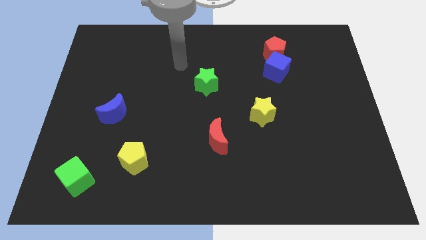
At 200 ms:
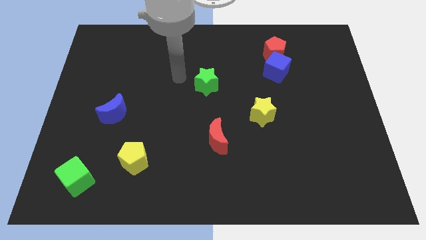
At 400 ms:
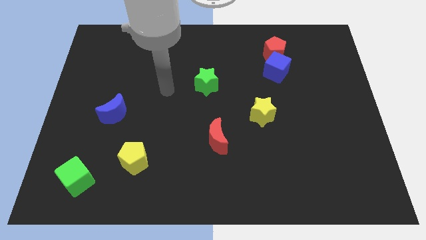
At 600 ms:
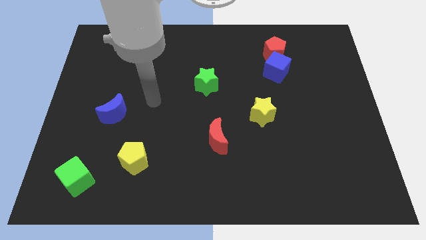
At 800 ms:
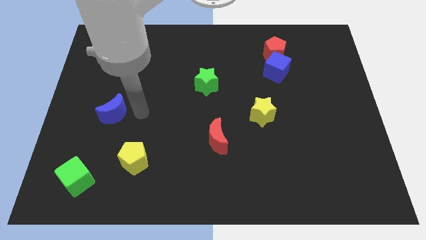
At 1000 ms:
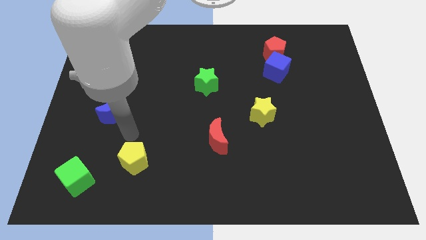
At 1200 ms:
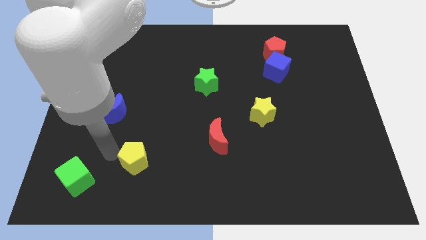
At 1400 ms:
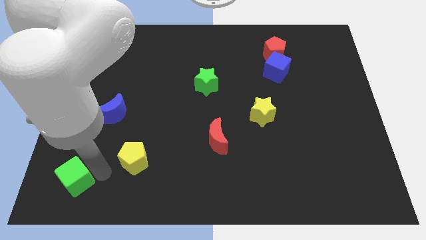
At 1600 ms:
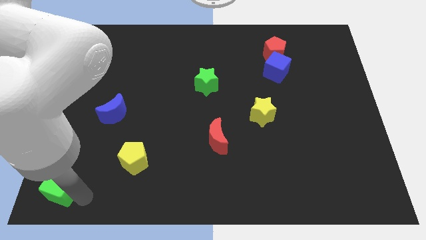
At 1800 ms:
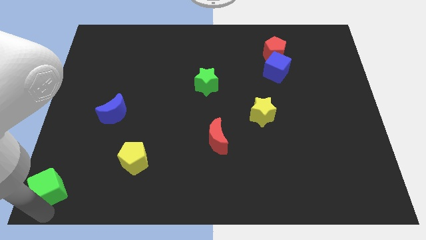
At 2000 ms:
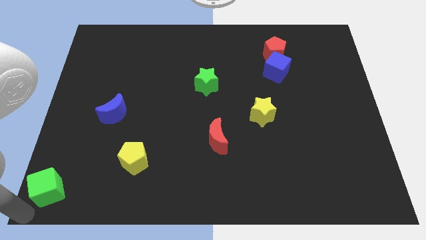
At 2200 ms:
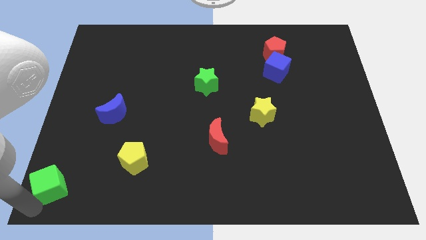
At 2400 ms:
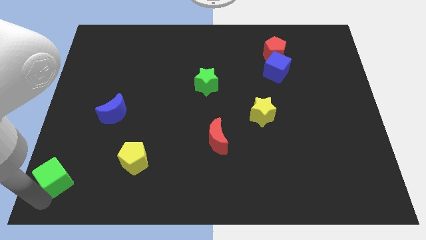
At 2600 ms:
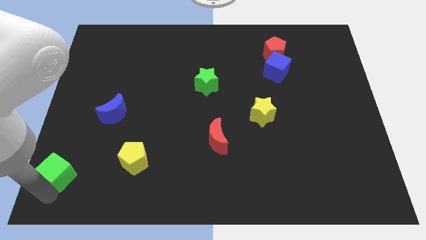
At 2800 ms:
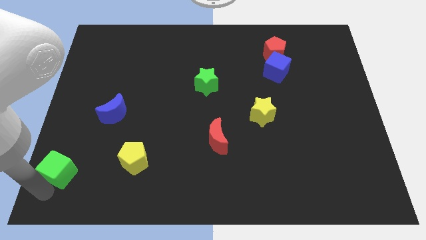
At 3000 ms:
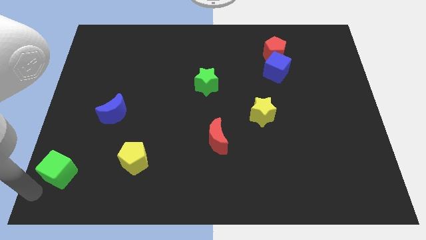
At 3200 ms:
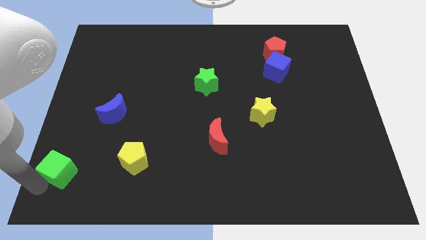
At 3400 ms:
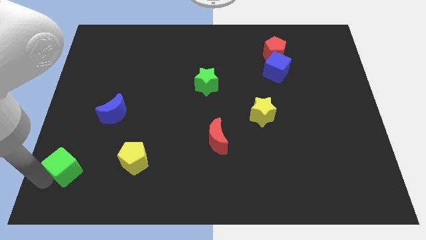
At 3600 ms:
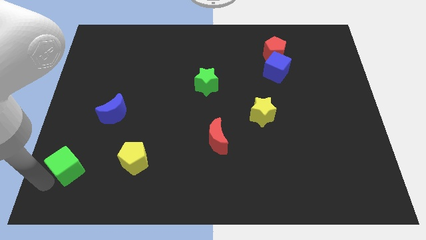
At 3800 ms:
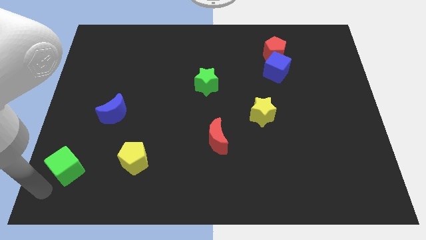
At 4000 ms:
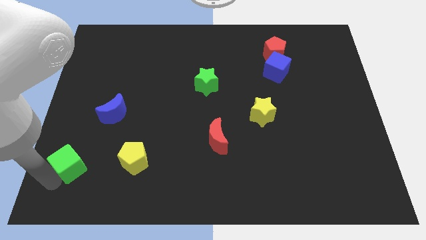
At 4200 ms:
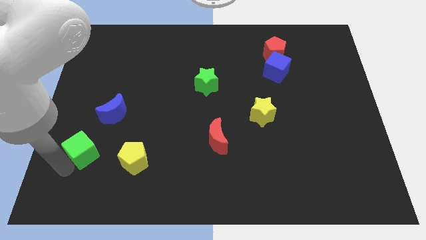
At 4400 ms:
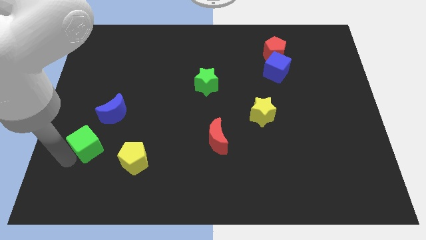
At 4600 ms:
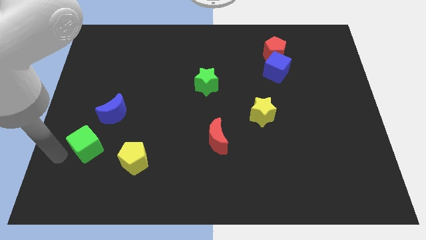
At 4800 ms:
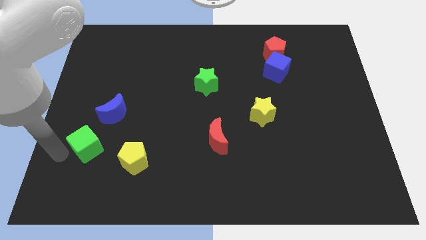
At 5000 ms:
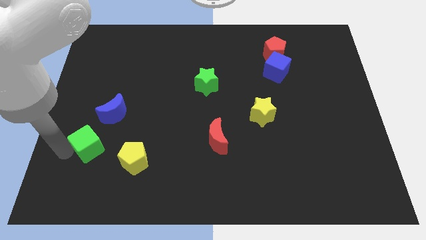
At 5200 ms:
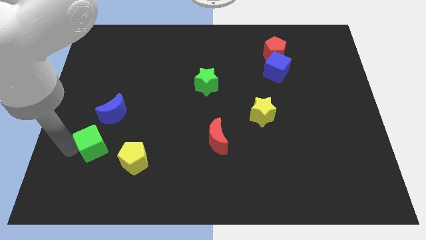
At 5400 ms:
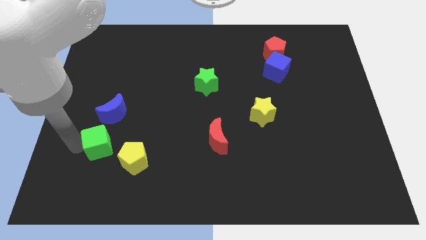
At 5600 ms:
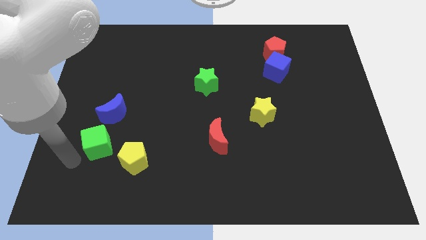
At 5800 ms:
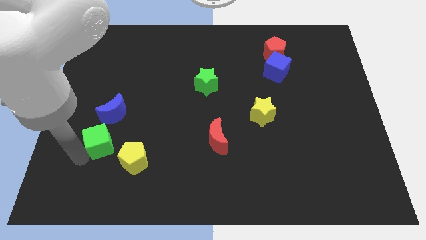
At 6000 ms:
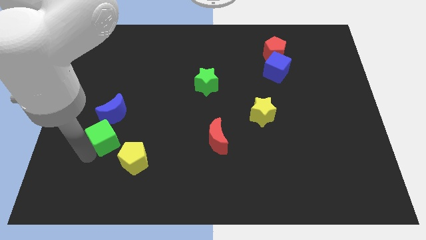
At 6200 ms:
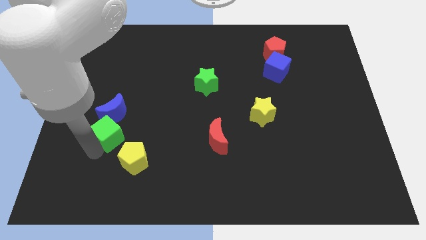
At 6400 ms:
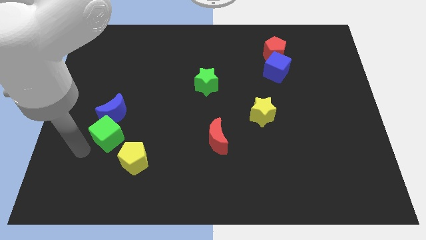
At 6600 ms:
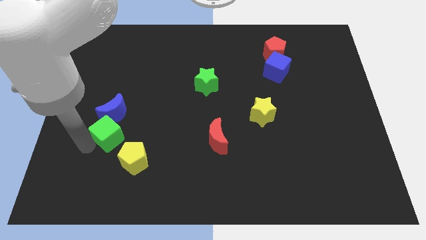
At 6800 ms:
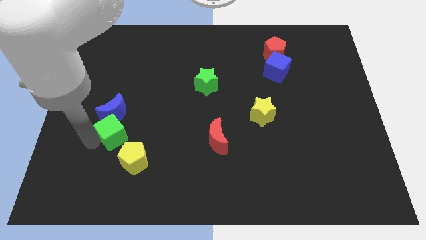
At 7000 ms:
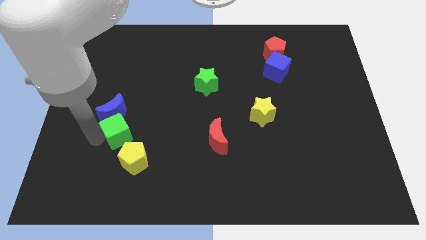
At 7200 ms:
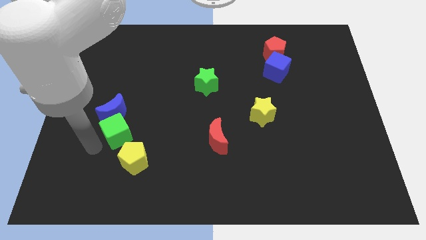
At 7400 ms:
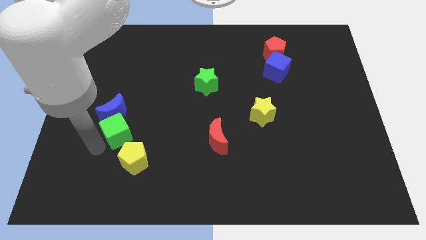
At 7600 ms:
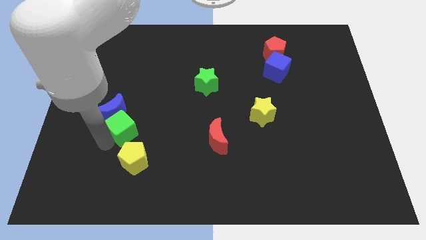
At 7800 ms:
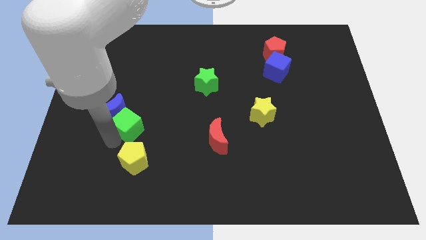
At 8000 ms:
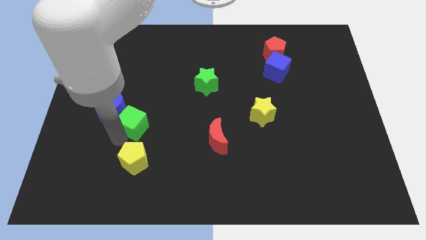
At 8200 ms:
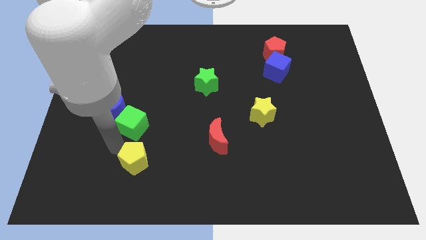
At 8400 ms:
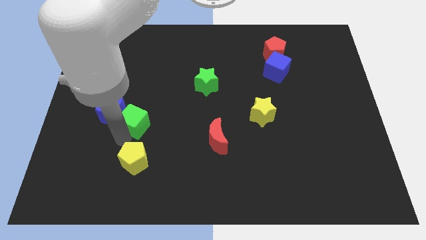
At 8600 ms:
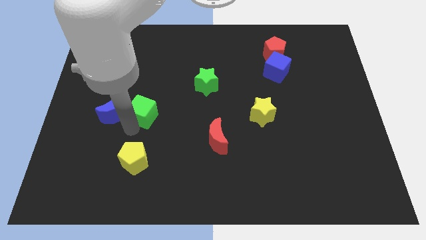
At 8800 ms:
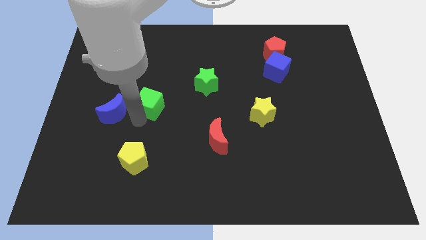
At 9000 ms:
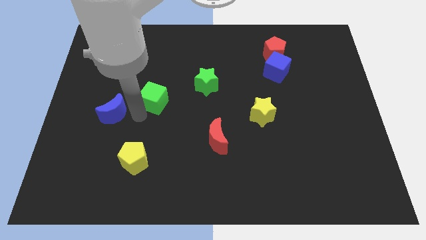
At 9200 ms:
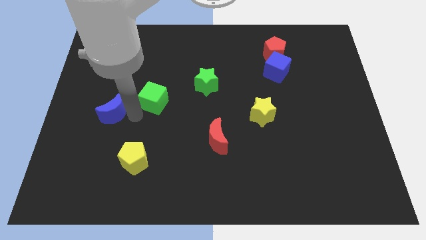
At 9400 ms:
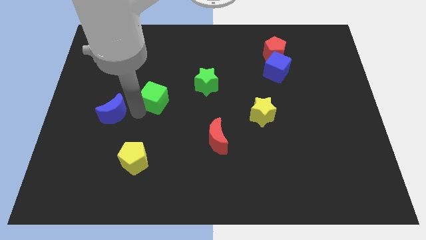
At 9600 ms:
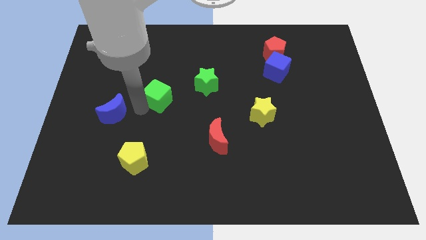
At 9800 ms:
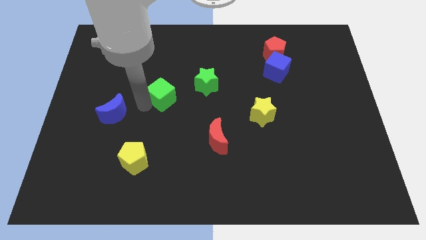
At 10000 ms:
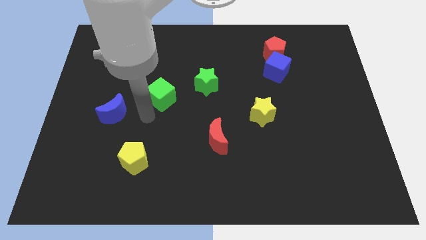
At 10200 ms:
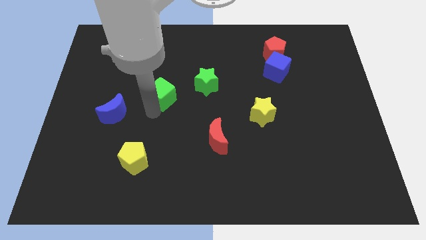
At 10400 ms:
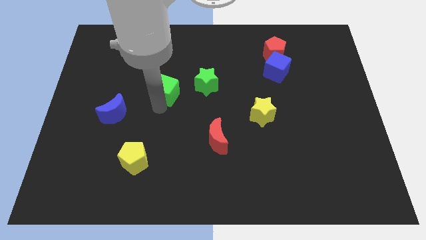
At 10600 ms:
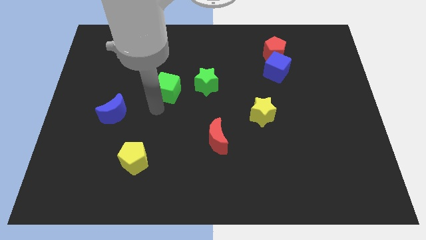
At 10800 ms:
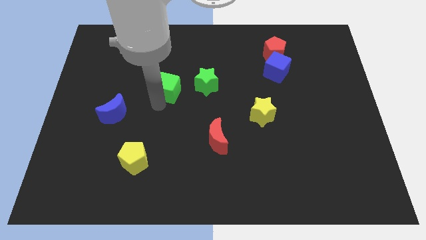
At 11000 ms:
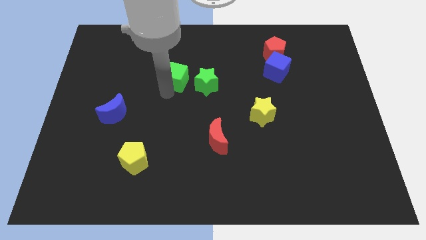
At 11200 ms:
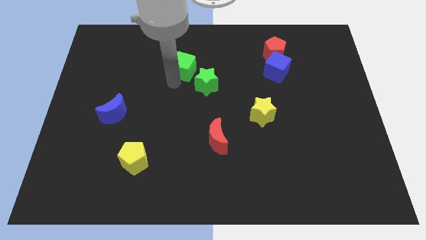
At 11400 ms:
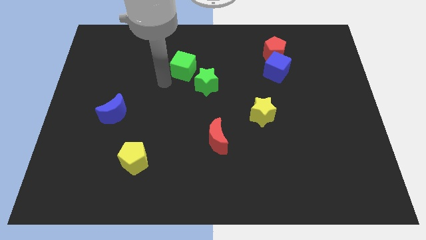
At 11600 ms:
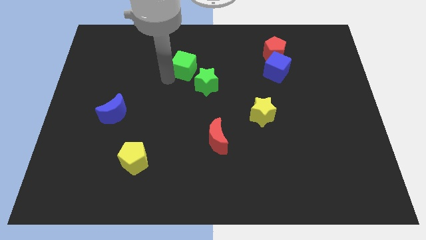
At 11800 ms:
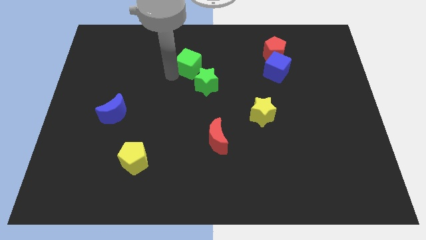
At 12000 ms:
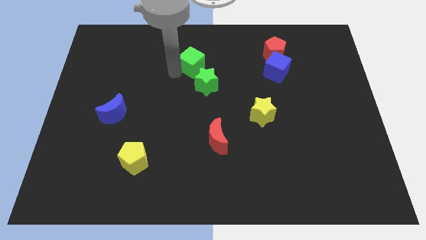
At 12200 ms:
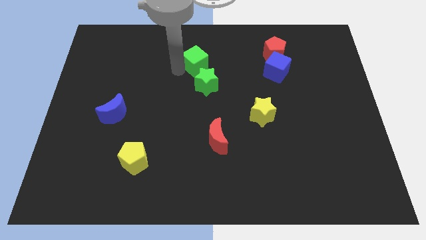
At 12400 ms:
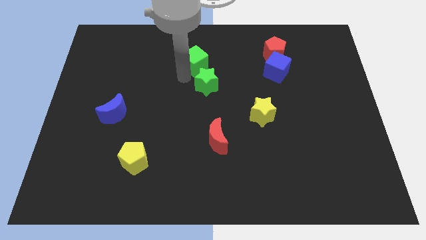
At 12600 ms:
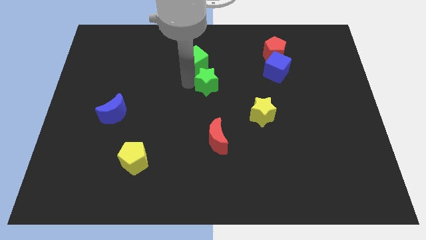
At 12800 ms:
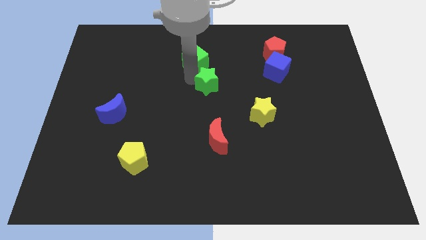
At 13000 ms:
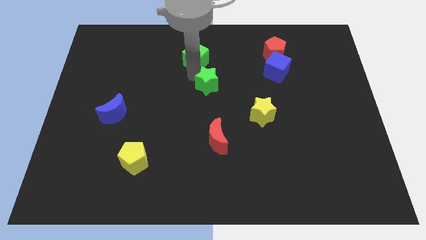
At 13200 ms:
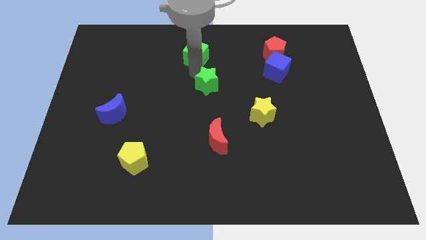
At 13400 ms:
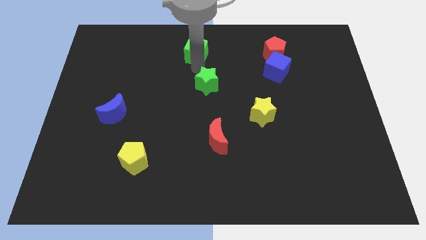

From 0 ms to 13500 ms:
slide the green cube to the top side
